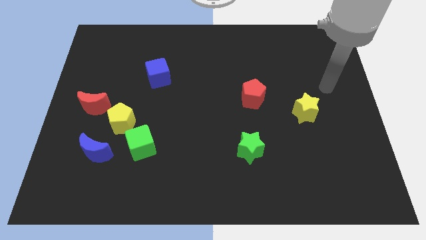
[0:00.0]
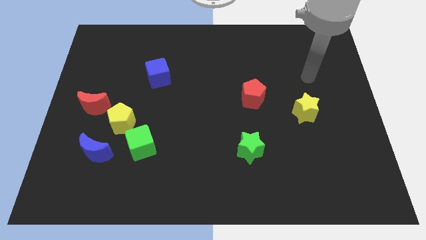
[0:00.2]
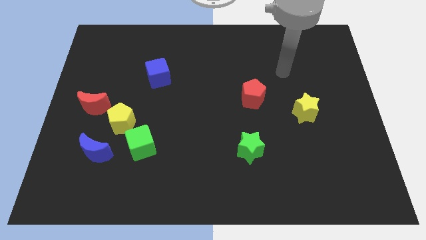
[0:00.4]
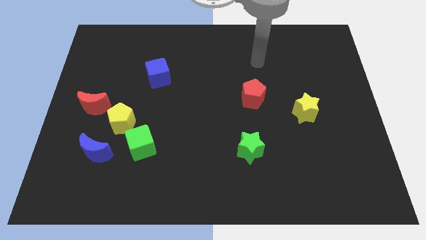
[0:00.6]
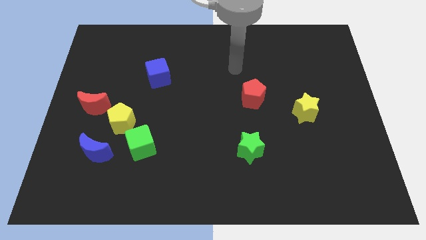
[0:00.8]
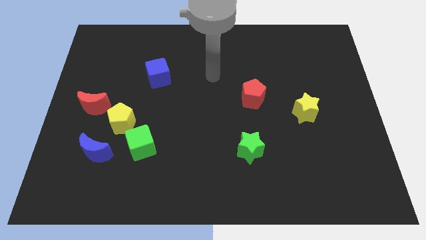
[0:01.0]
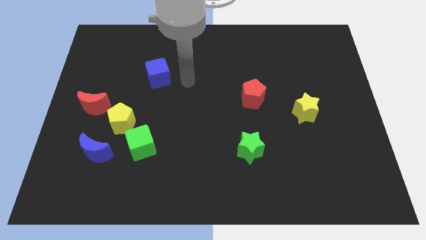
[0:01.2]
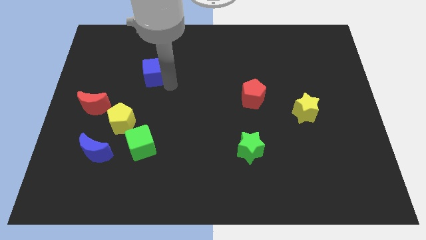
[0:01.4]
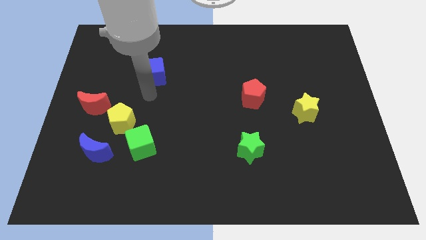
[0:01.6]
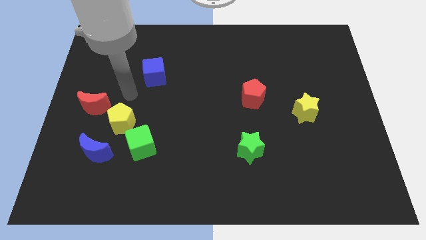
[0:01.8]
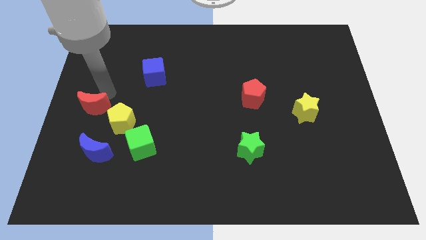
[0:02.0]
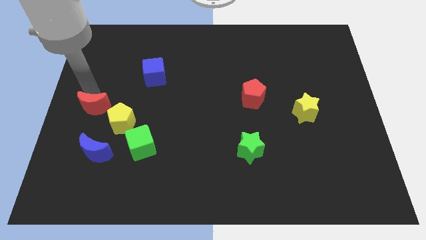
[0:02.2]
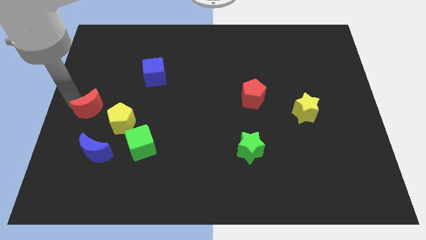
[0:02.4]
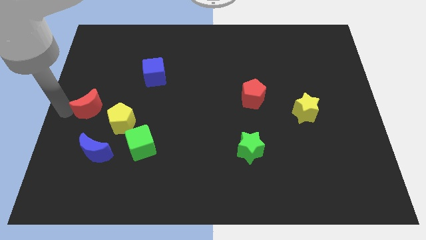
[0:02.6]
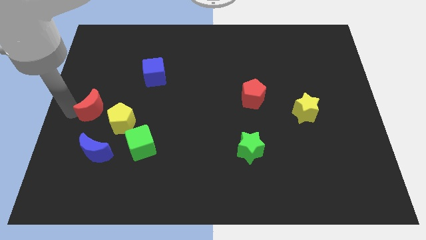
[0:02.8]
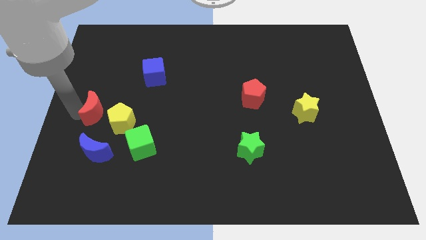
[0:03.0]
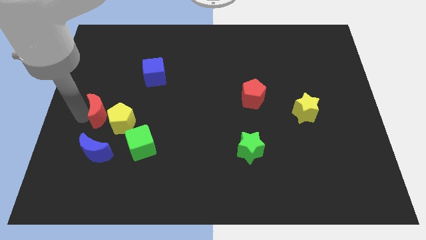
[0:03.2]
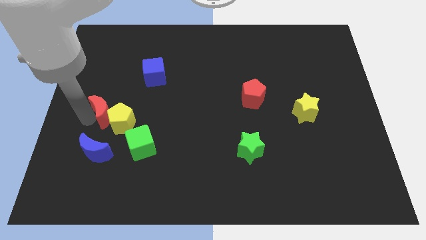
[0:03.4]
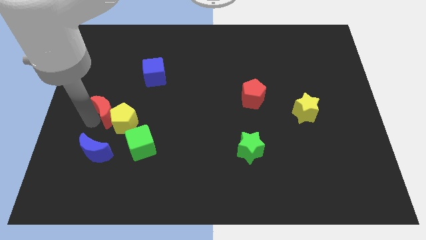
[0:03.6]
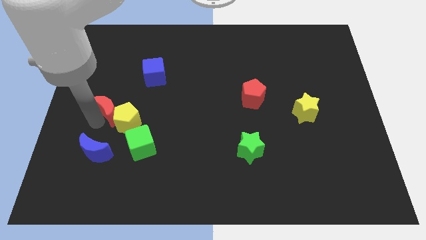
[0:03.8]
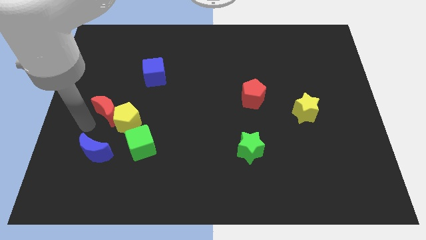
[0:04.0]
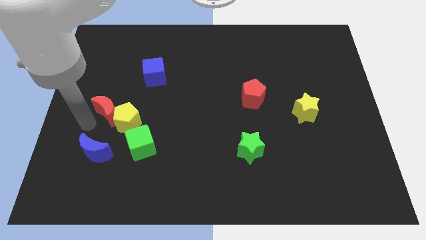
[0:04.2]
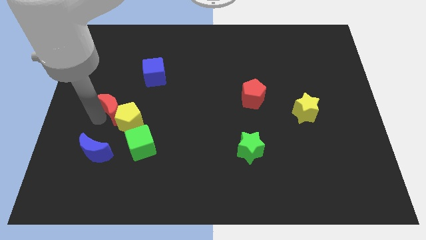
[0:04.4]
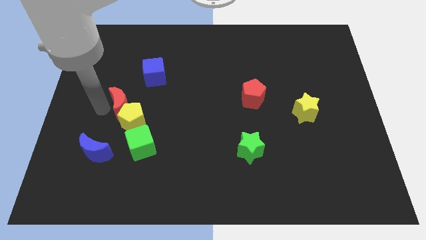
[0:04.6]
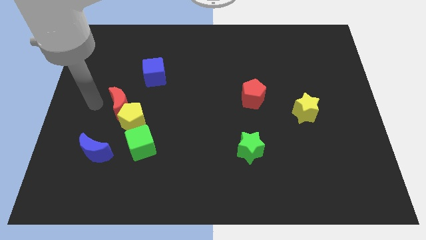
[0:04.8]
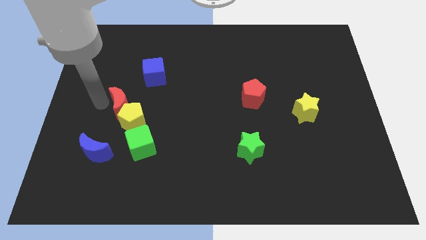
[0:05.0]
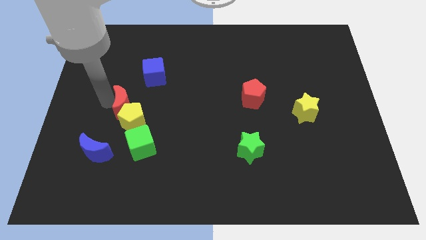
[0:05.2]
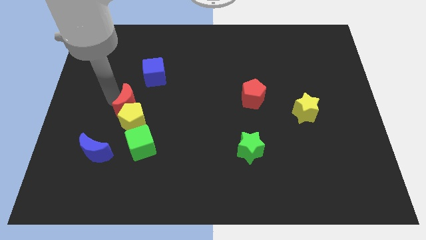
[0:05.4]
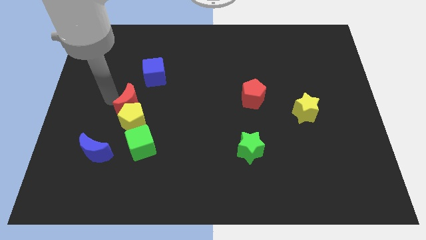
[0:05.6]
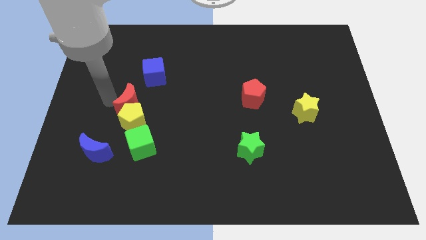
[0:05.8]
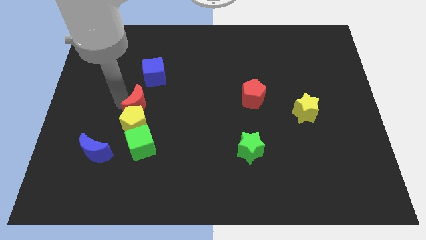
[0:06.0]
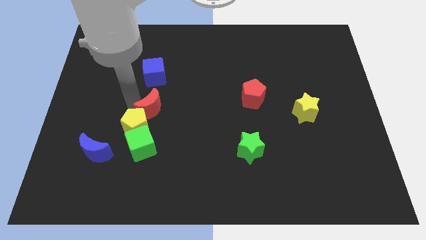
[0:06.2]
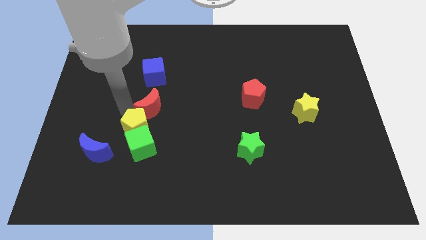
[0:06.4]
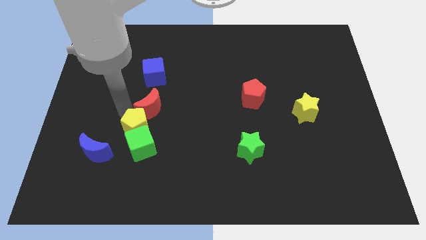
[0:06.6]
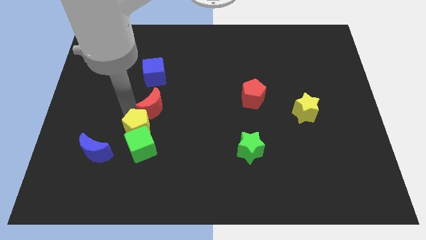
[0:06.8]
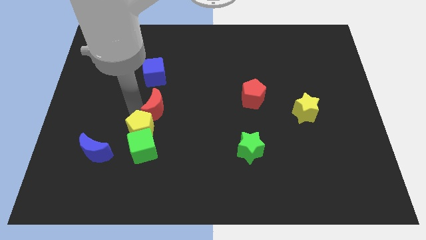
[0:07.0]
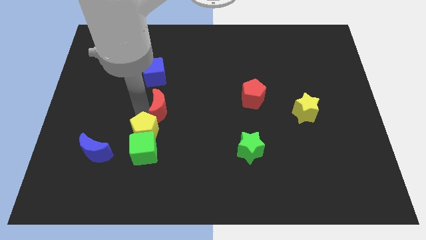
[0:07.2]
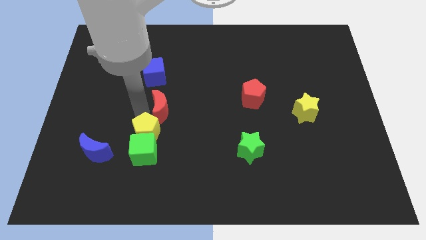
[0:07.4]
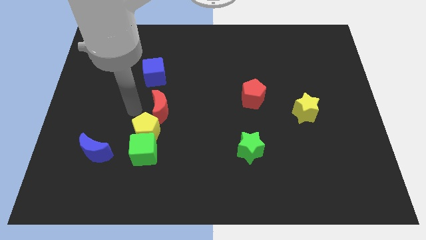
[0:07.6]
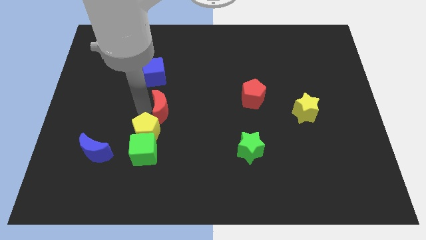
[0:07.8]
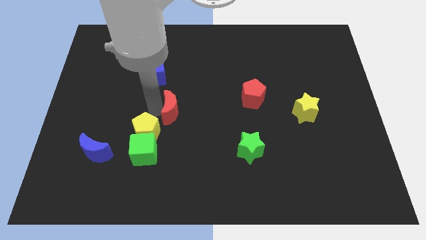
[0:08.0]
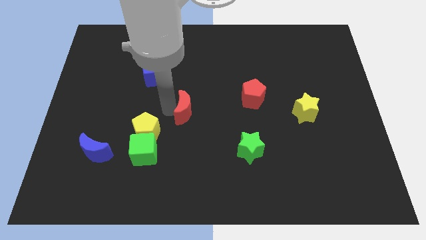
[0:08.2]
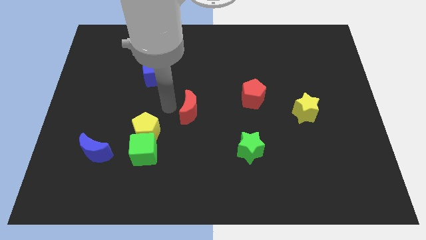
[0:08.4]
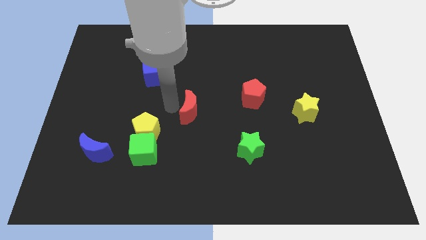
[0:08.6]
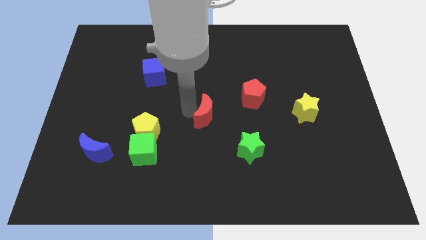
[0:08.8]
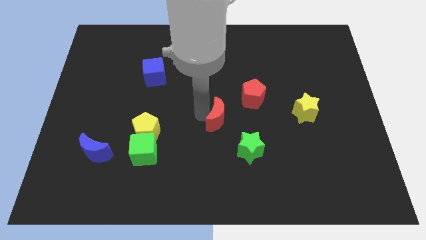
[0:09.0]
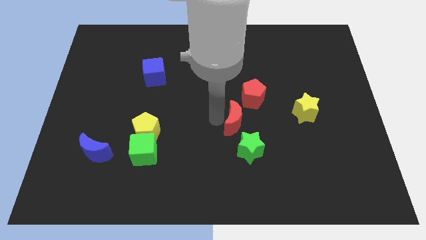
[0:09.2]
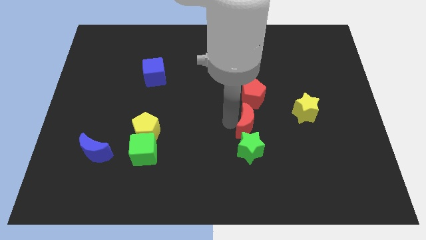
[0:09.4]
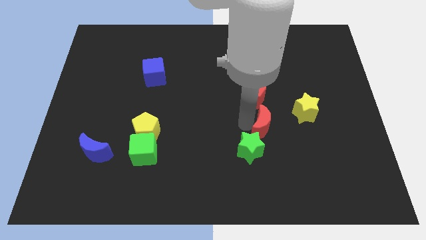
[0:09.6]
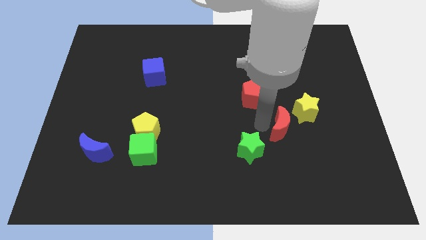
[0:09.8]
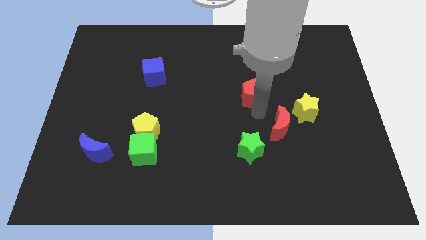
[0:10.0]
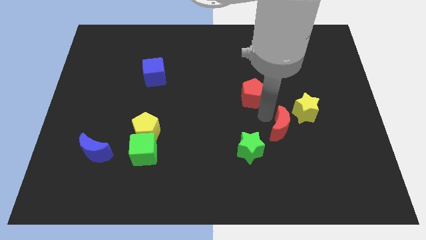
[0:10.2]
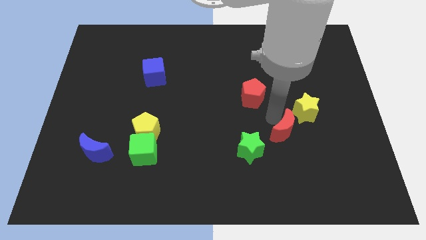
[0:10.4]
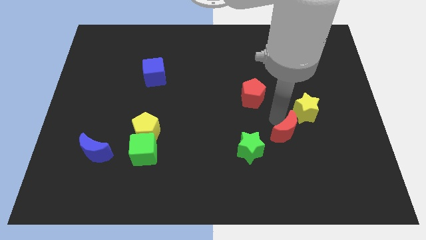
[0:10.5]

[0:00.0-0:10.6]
move the red moon to the bottom side of the yellow star

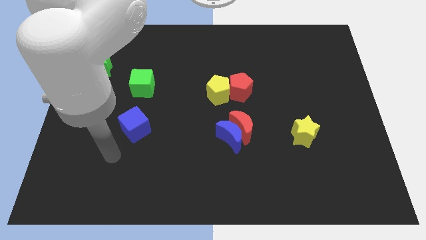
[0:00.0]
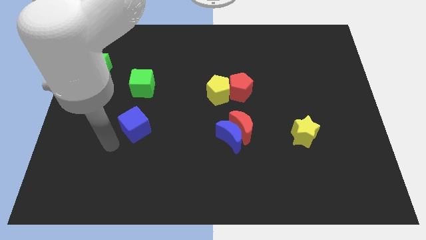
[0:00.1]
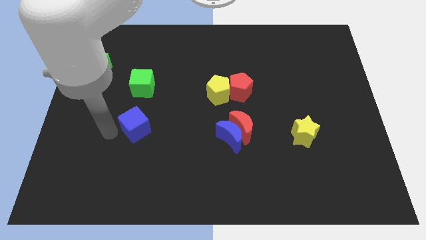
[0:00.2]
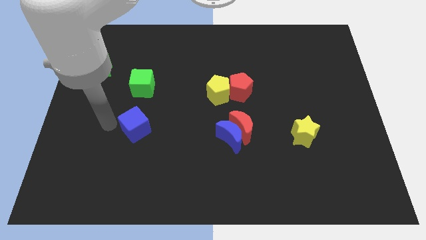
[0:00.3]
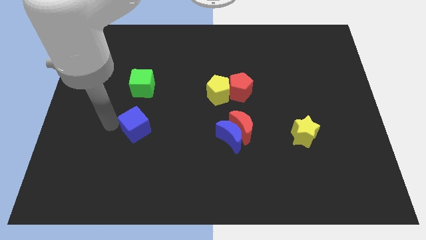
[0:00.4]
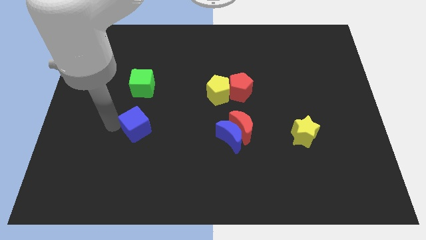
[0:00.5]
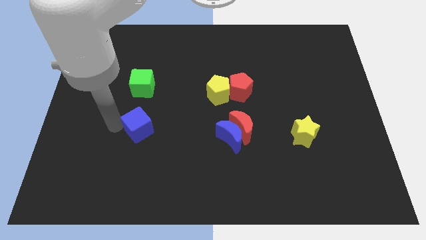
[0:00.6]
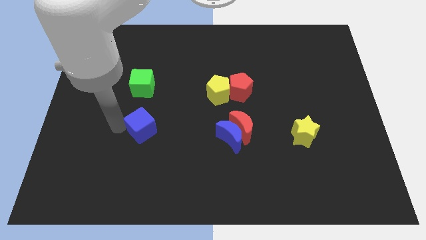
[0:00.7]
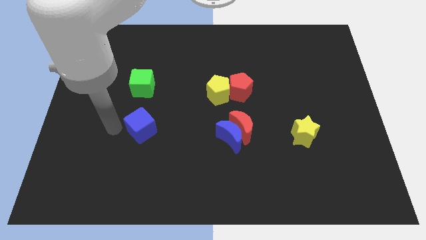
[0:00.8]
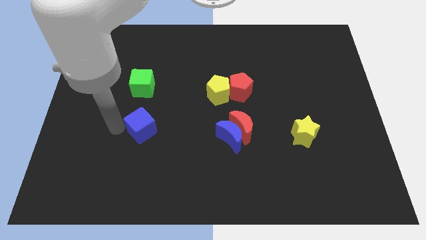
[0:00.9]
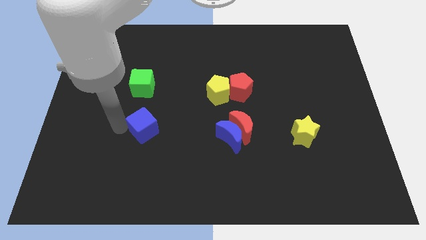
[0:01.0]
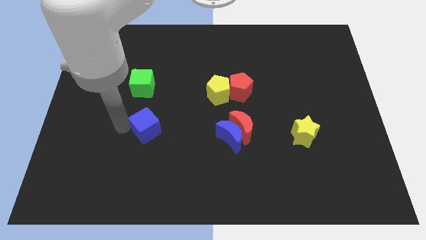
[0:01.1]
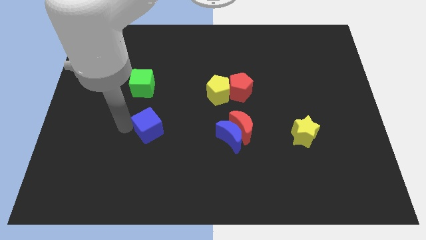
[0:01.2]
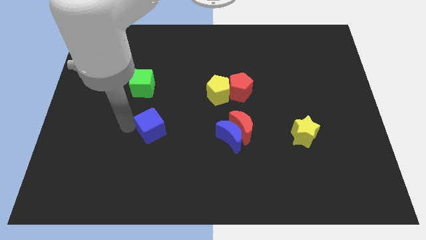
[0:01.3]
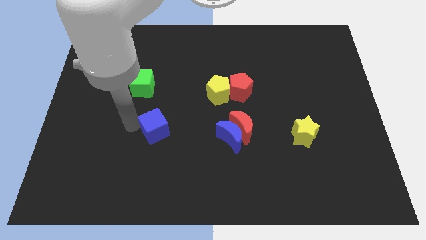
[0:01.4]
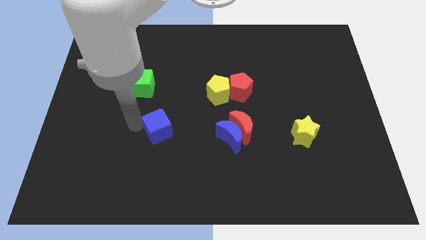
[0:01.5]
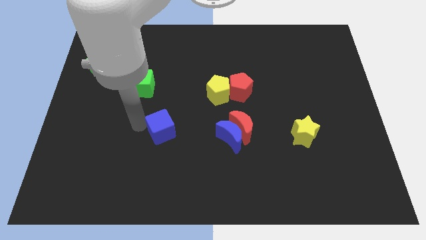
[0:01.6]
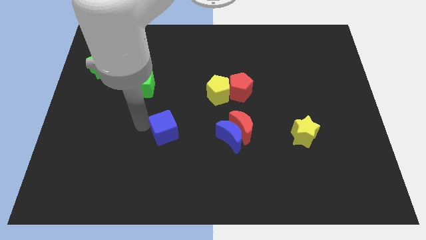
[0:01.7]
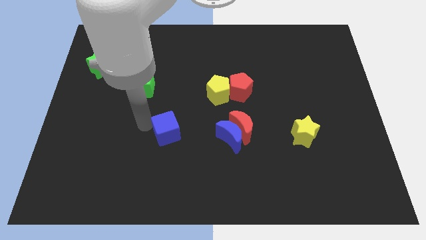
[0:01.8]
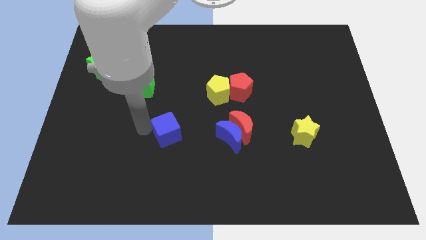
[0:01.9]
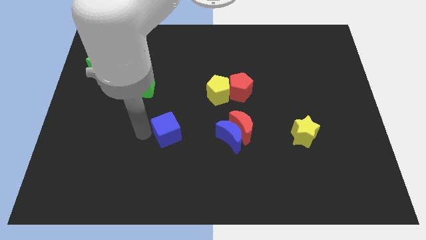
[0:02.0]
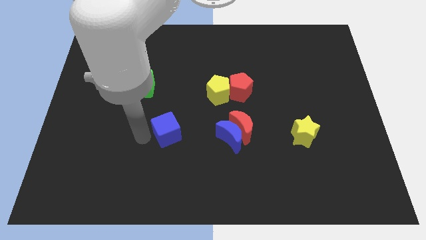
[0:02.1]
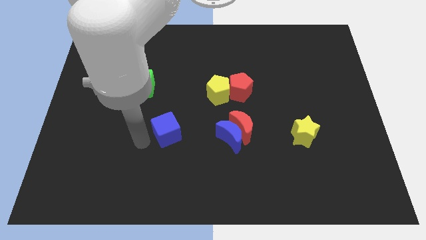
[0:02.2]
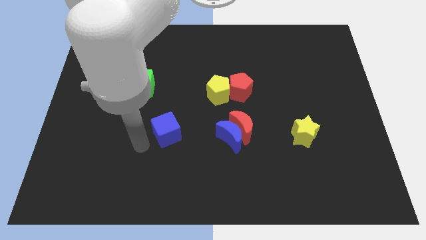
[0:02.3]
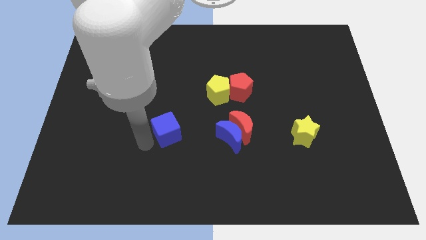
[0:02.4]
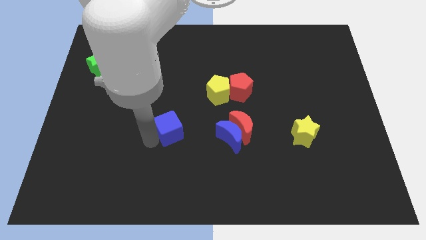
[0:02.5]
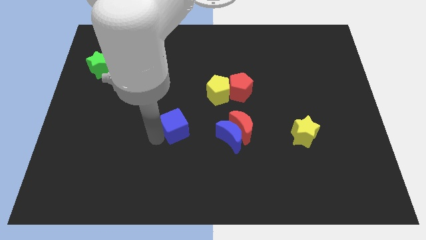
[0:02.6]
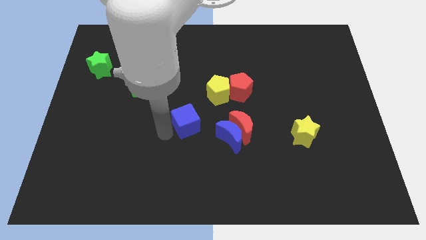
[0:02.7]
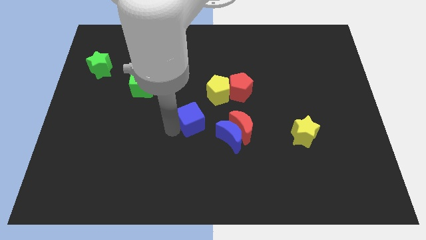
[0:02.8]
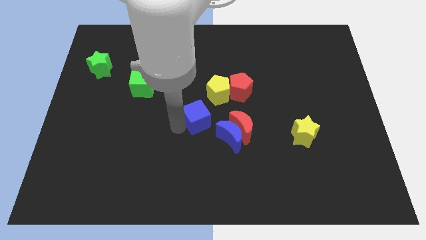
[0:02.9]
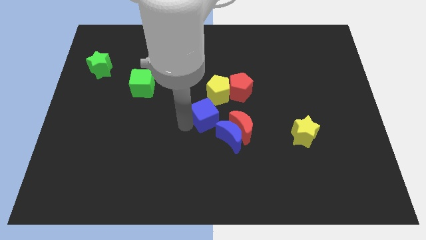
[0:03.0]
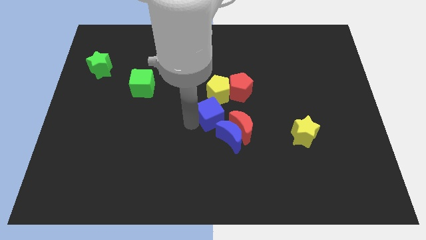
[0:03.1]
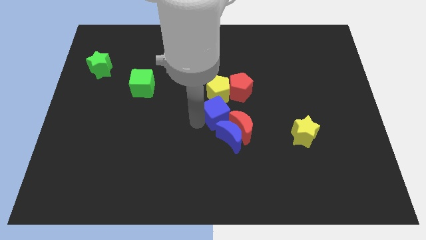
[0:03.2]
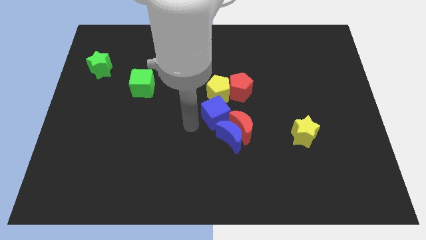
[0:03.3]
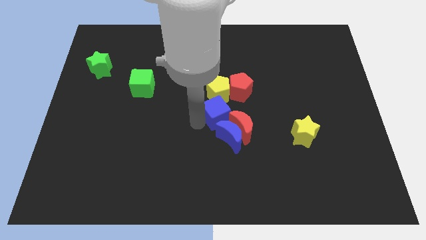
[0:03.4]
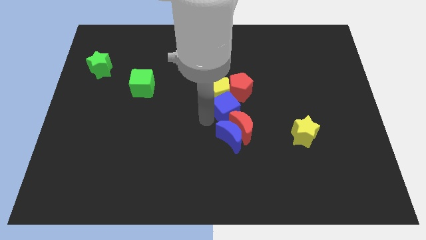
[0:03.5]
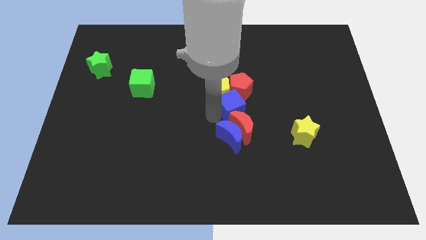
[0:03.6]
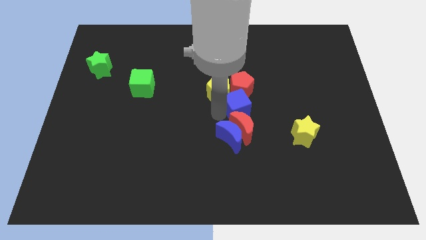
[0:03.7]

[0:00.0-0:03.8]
move the blue cube to the top right of the blue moon
